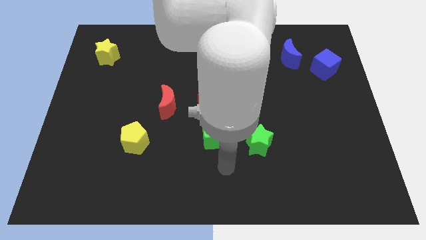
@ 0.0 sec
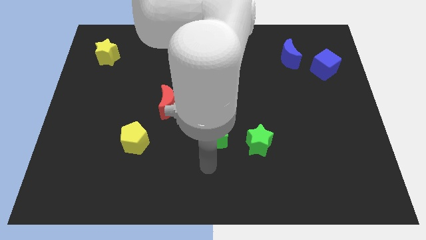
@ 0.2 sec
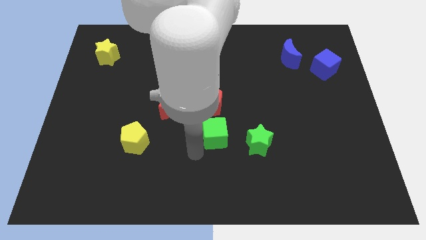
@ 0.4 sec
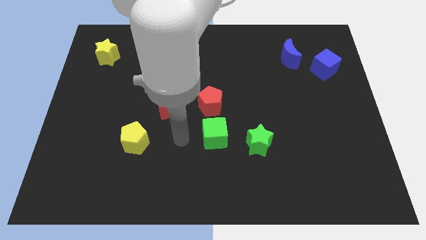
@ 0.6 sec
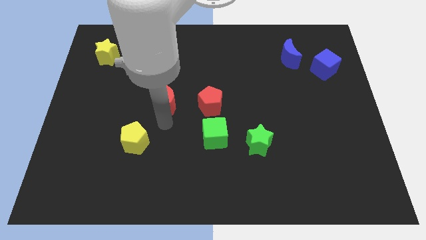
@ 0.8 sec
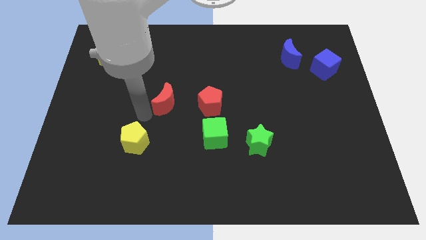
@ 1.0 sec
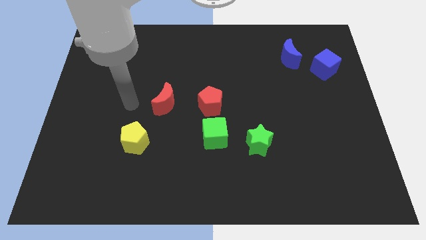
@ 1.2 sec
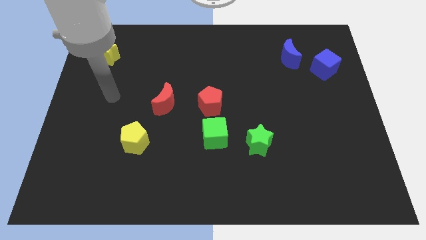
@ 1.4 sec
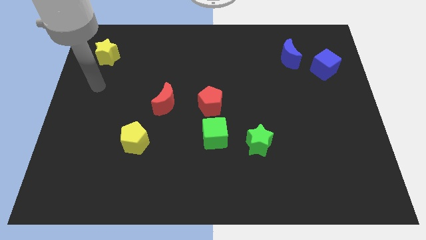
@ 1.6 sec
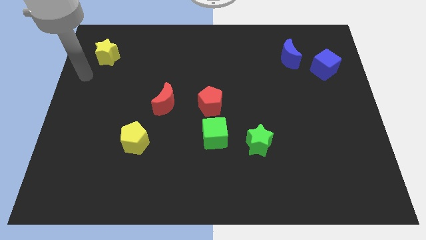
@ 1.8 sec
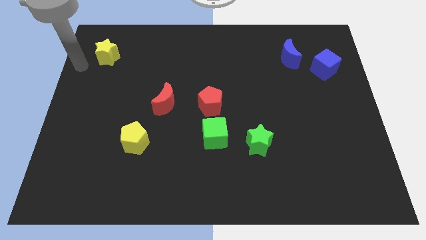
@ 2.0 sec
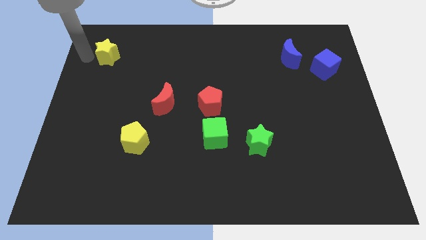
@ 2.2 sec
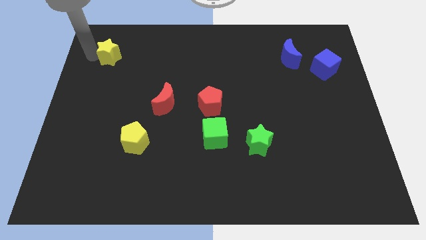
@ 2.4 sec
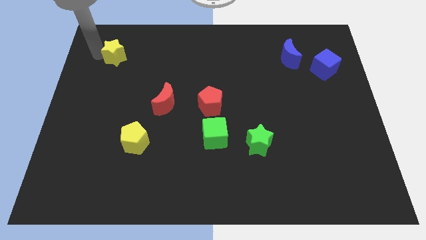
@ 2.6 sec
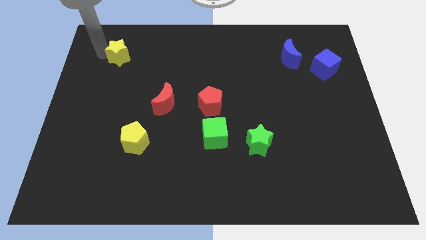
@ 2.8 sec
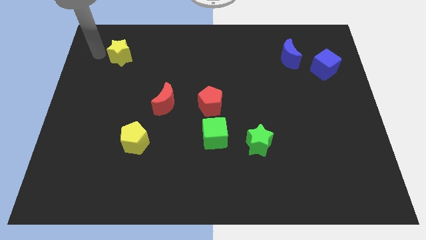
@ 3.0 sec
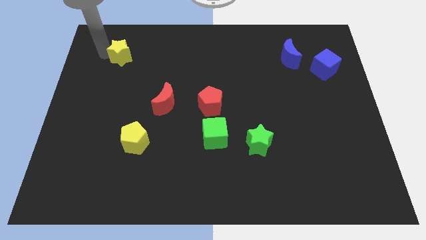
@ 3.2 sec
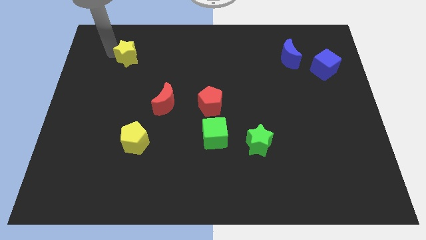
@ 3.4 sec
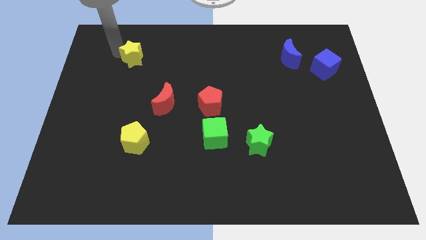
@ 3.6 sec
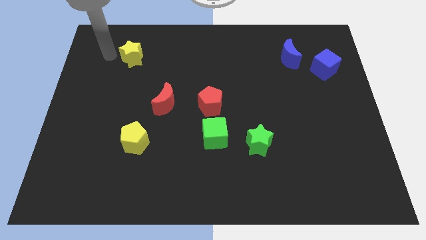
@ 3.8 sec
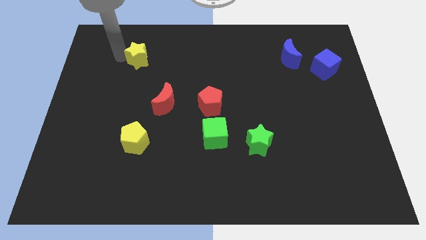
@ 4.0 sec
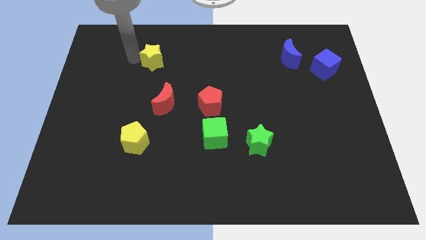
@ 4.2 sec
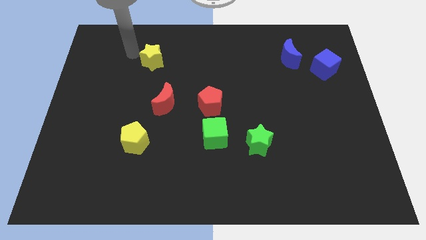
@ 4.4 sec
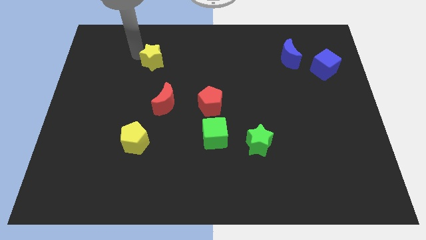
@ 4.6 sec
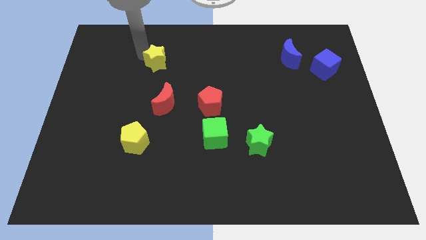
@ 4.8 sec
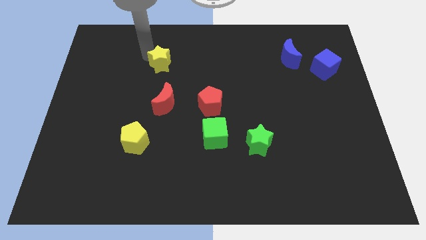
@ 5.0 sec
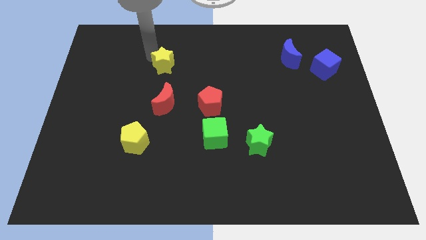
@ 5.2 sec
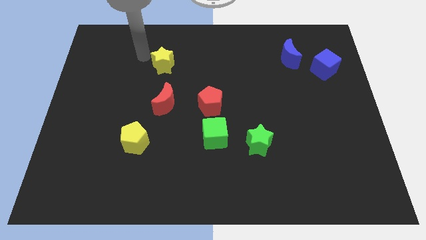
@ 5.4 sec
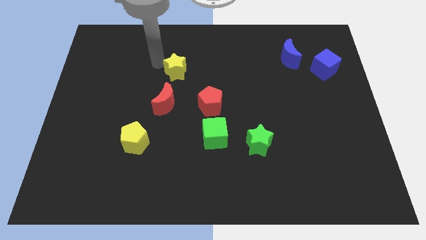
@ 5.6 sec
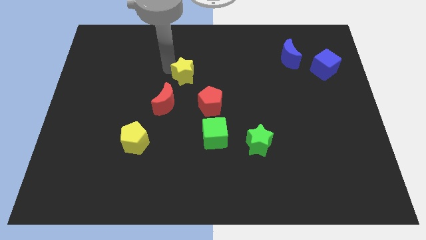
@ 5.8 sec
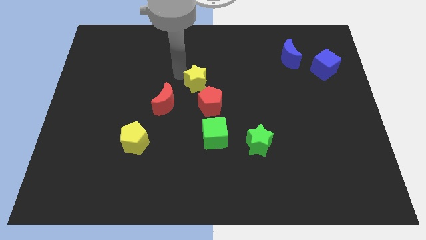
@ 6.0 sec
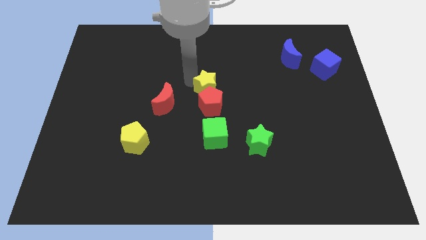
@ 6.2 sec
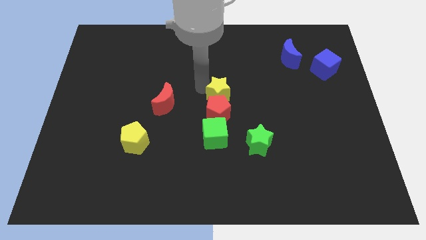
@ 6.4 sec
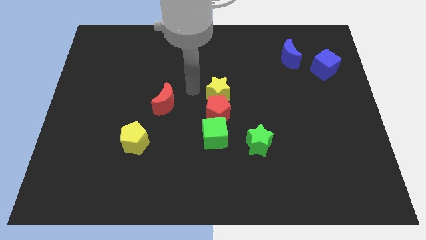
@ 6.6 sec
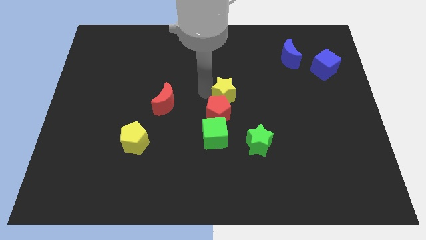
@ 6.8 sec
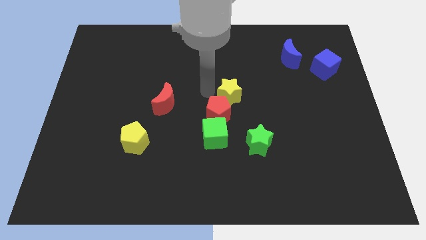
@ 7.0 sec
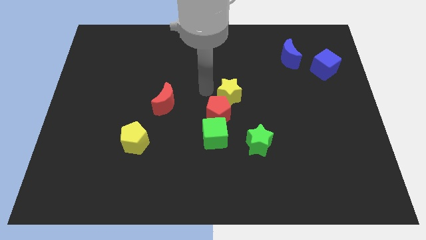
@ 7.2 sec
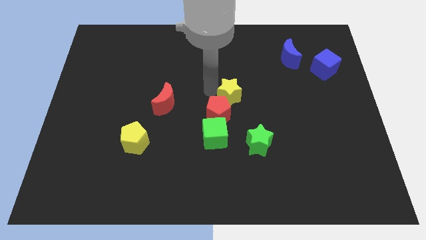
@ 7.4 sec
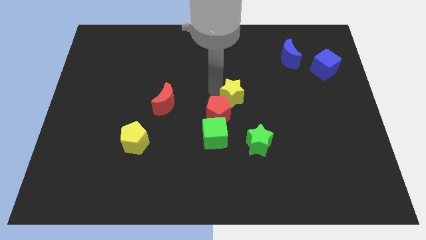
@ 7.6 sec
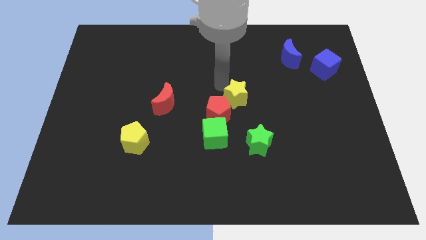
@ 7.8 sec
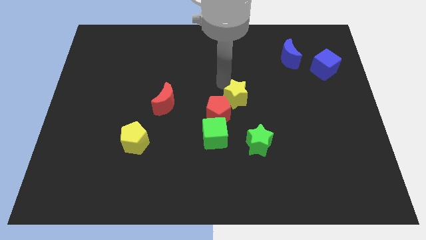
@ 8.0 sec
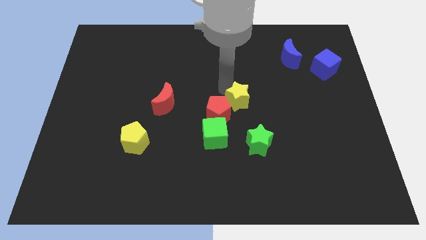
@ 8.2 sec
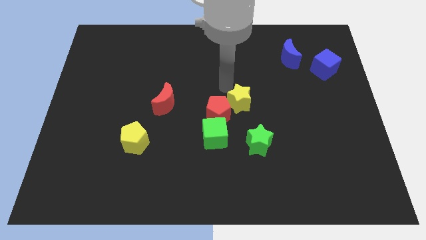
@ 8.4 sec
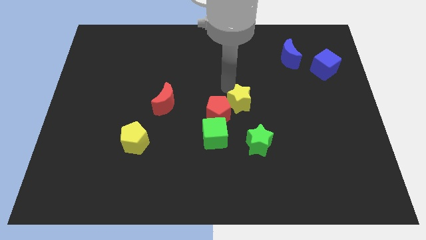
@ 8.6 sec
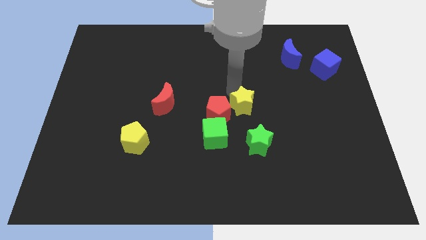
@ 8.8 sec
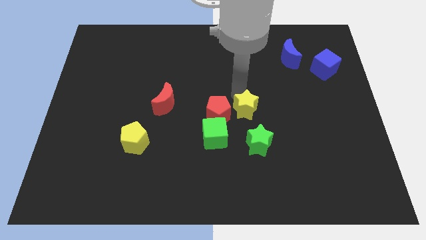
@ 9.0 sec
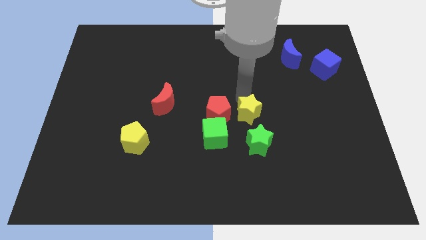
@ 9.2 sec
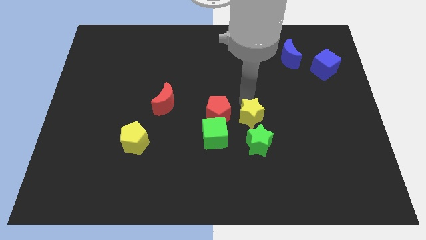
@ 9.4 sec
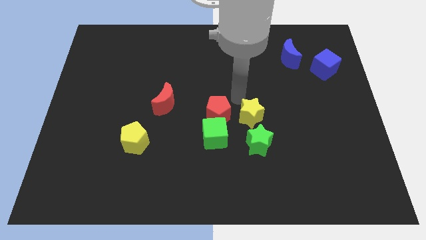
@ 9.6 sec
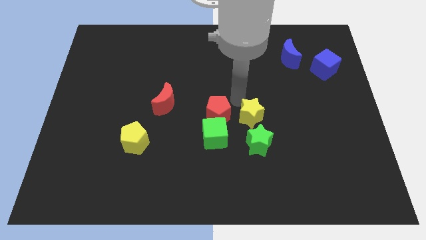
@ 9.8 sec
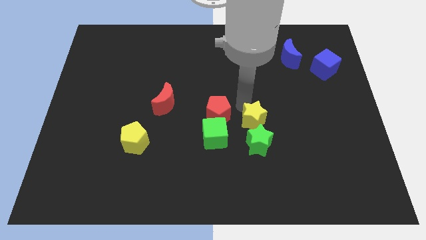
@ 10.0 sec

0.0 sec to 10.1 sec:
put the yellow star next to the green star

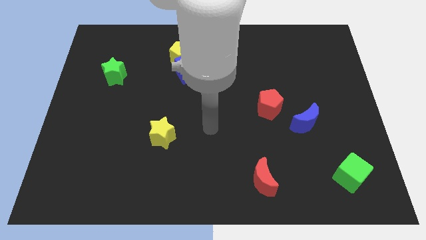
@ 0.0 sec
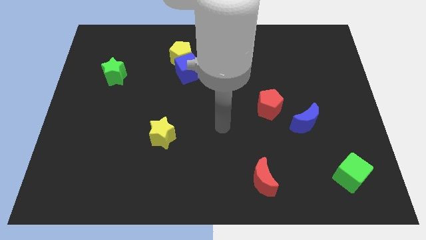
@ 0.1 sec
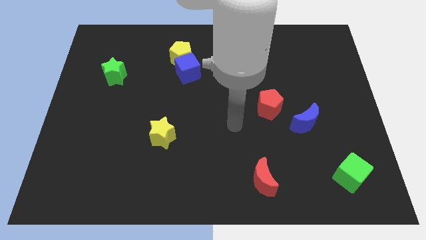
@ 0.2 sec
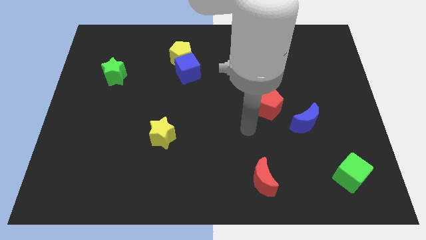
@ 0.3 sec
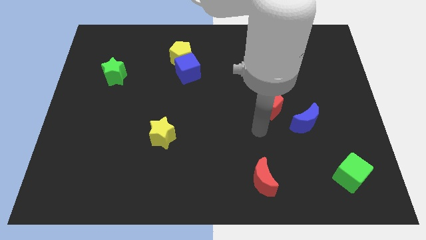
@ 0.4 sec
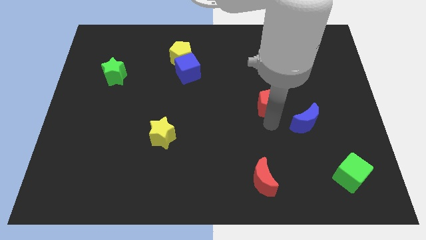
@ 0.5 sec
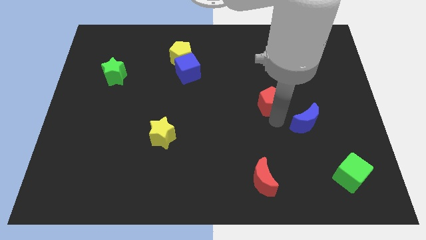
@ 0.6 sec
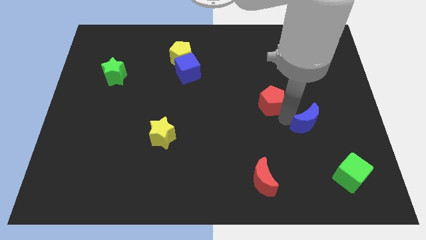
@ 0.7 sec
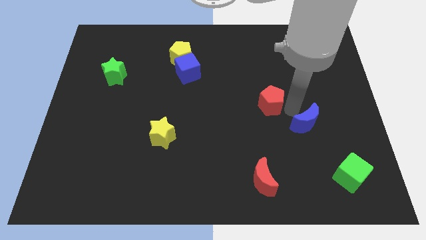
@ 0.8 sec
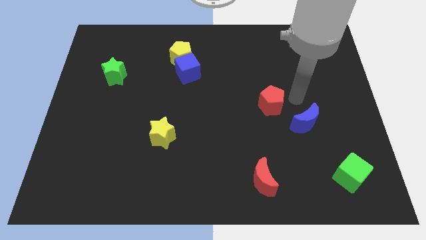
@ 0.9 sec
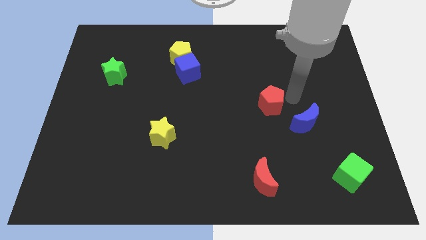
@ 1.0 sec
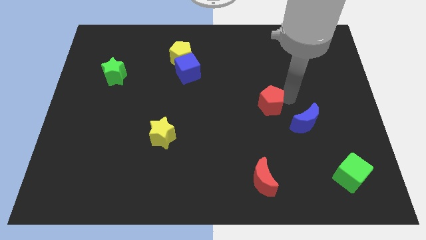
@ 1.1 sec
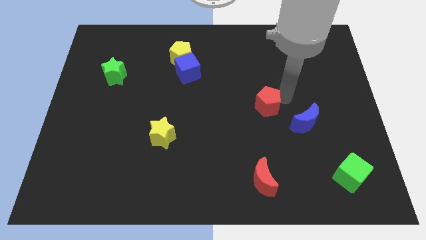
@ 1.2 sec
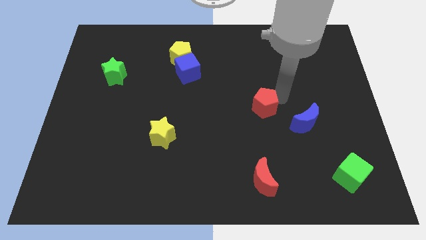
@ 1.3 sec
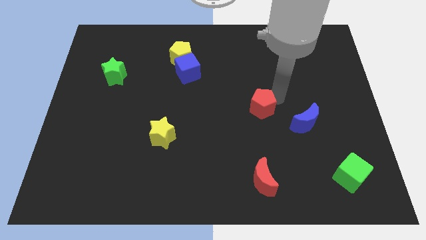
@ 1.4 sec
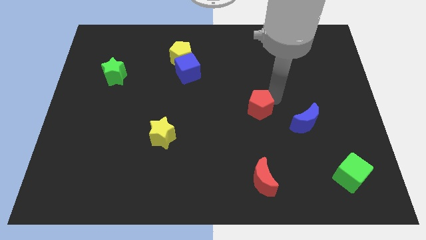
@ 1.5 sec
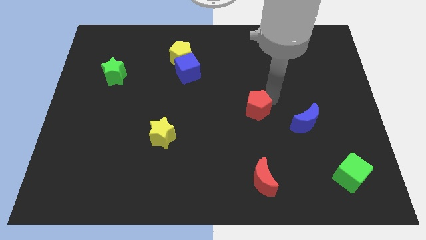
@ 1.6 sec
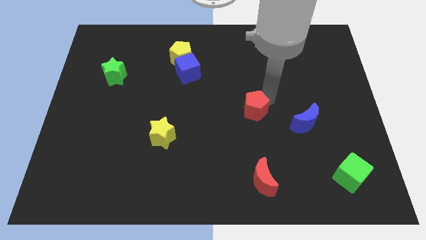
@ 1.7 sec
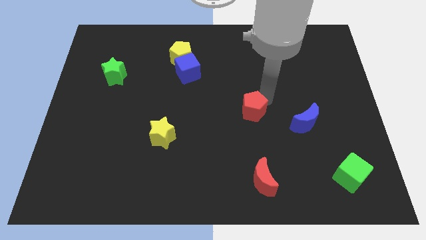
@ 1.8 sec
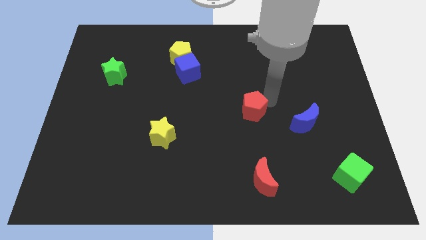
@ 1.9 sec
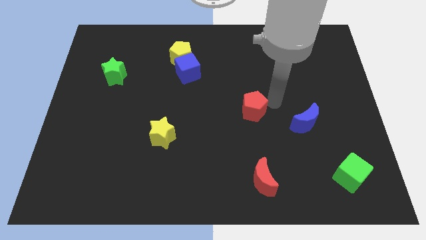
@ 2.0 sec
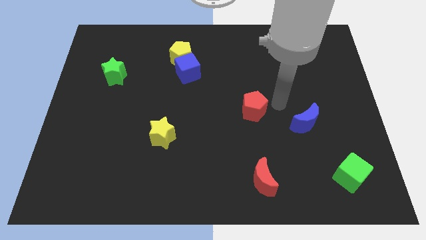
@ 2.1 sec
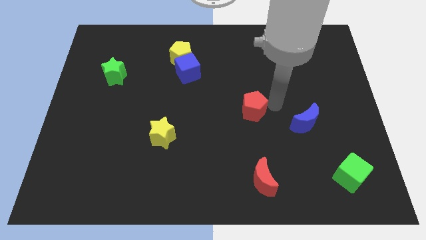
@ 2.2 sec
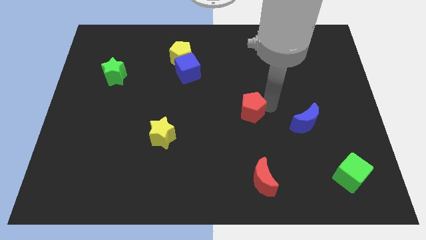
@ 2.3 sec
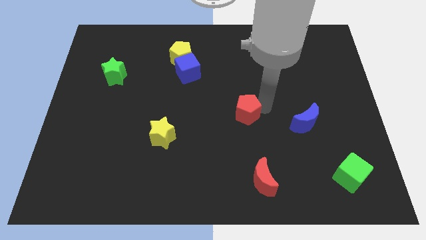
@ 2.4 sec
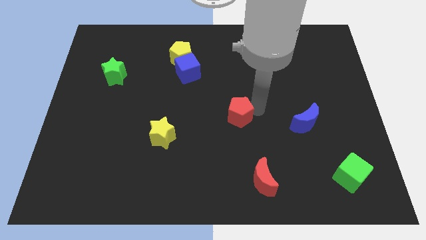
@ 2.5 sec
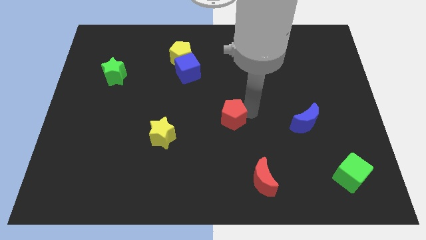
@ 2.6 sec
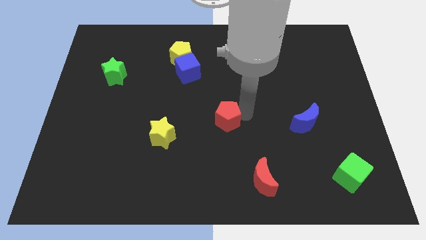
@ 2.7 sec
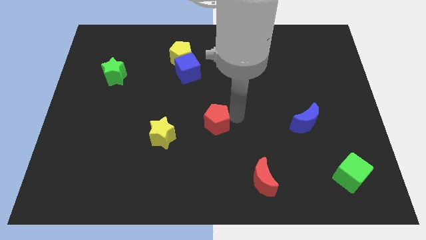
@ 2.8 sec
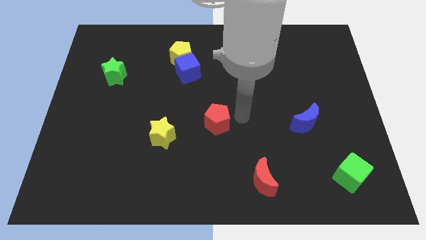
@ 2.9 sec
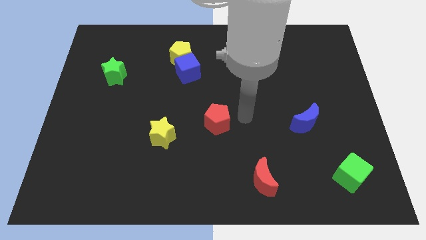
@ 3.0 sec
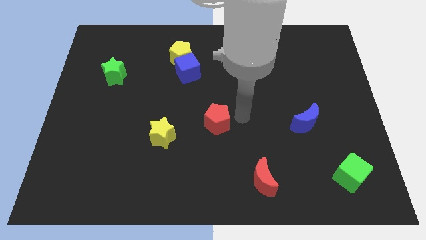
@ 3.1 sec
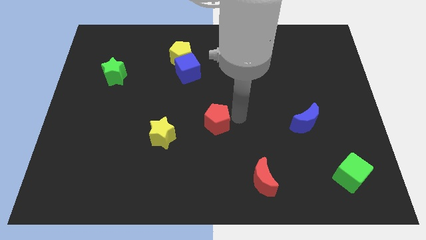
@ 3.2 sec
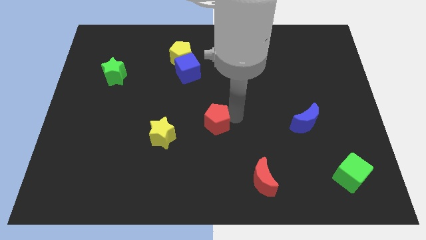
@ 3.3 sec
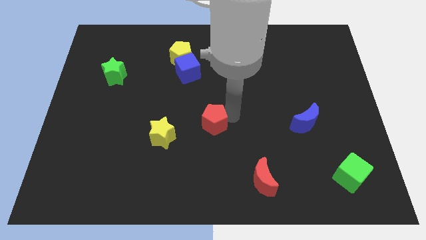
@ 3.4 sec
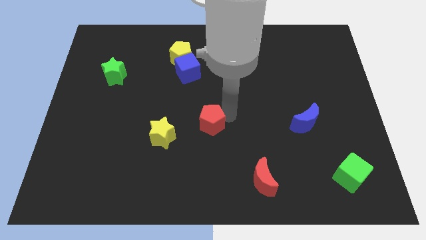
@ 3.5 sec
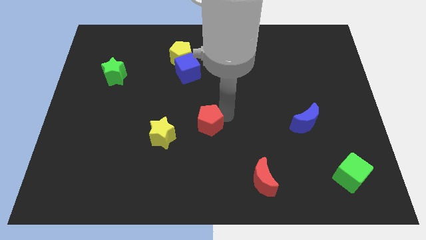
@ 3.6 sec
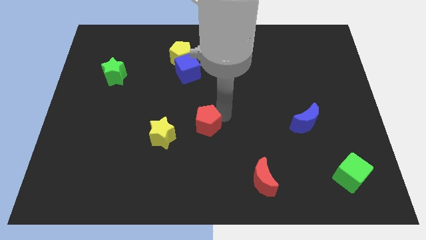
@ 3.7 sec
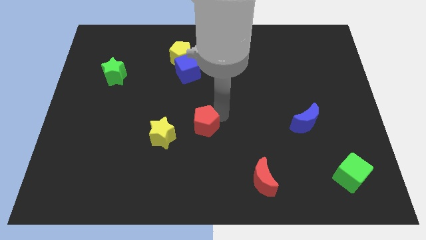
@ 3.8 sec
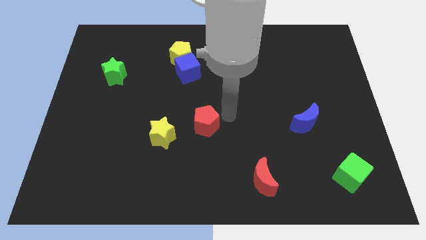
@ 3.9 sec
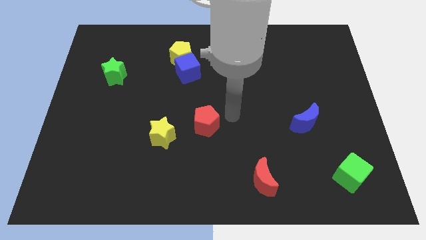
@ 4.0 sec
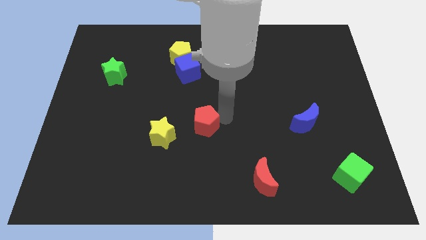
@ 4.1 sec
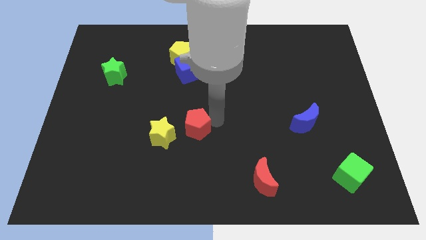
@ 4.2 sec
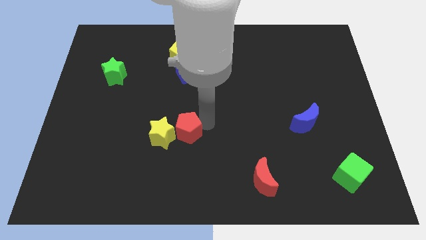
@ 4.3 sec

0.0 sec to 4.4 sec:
put the red pentagon close to the yellow star
